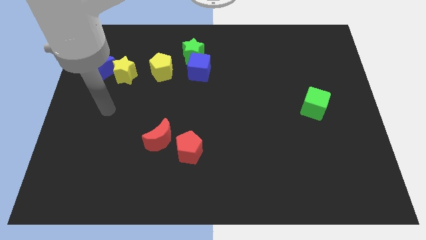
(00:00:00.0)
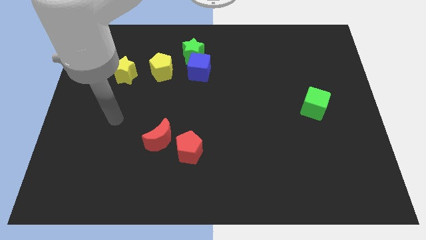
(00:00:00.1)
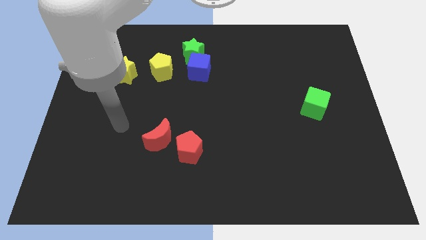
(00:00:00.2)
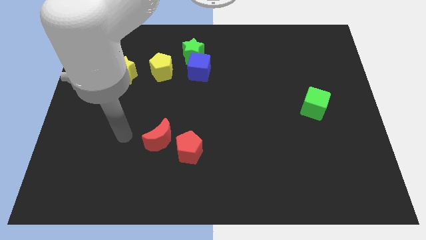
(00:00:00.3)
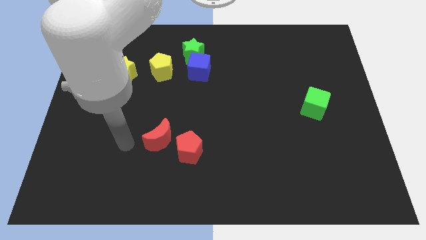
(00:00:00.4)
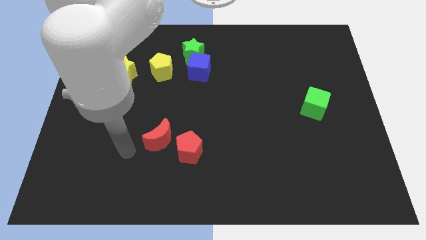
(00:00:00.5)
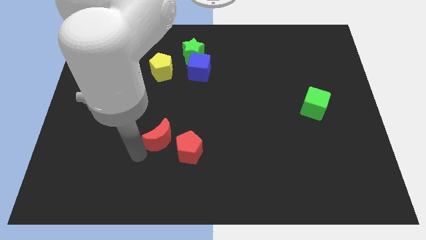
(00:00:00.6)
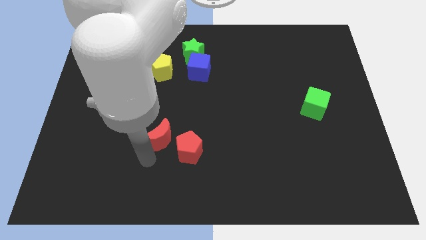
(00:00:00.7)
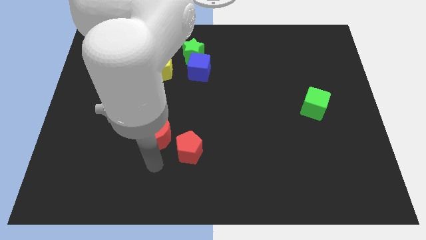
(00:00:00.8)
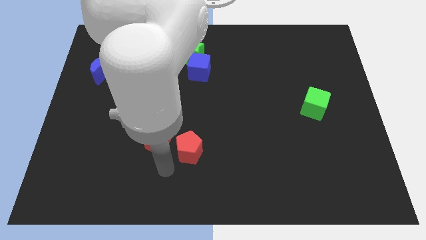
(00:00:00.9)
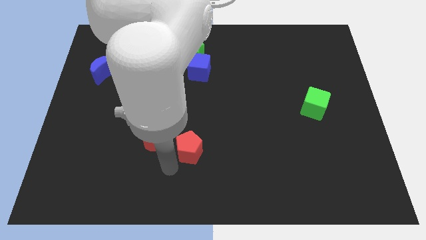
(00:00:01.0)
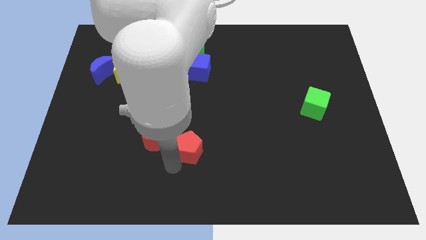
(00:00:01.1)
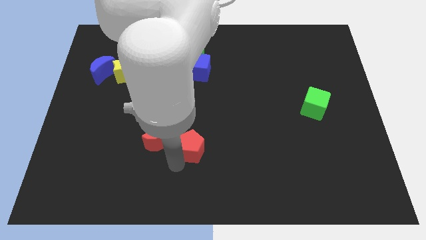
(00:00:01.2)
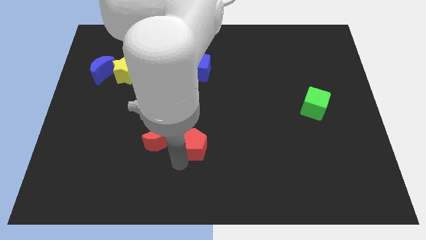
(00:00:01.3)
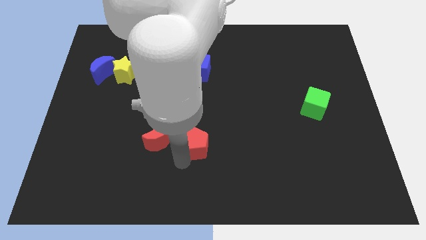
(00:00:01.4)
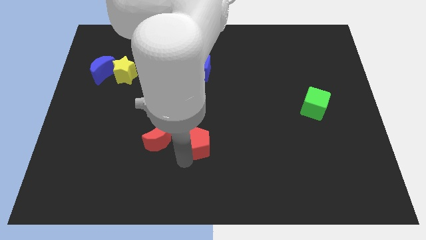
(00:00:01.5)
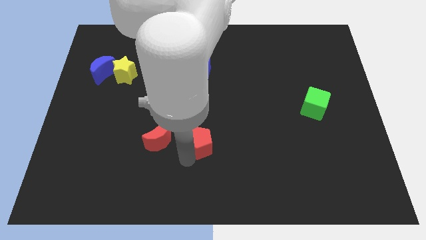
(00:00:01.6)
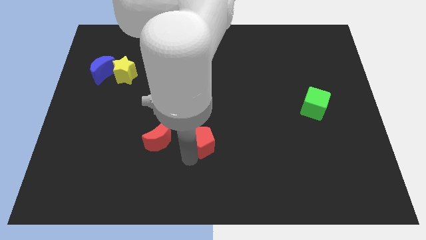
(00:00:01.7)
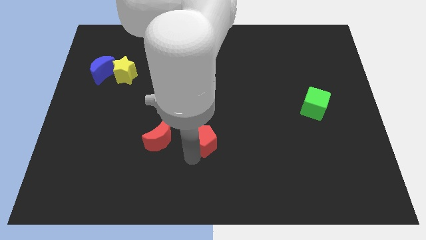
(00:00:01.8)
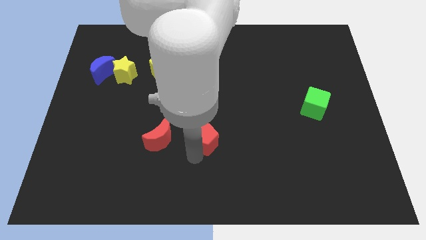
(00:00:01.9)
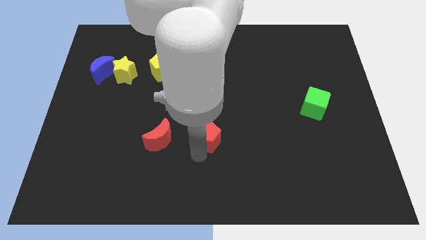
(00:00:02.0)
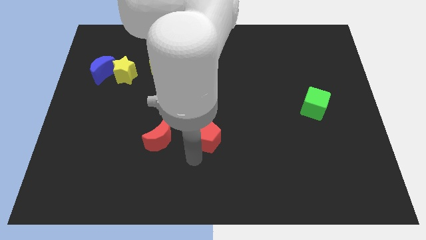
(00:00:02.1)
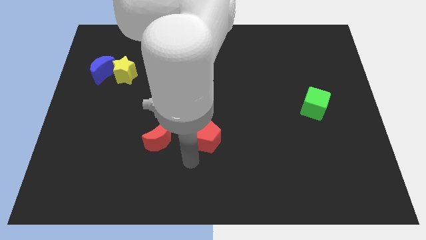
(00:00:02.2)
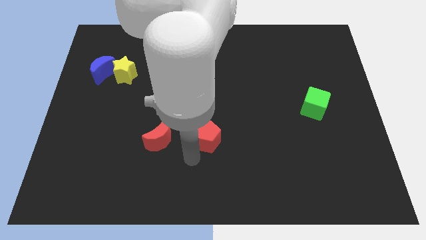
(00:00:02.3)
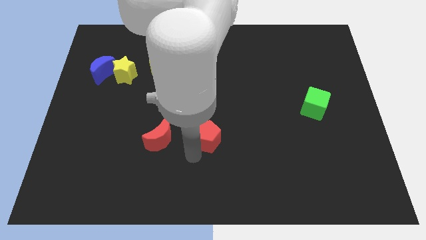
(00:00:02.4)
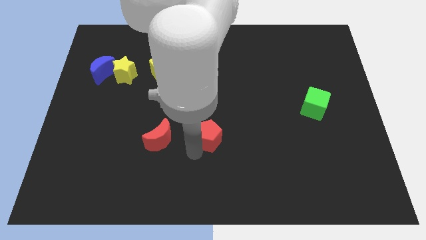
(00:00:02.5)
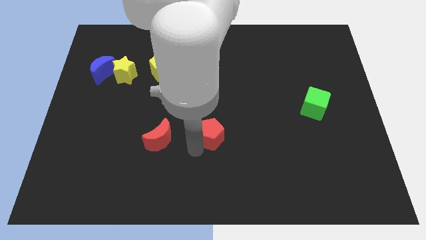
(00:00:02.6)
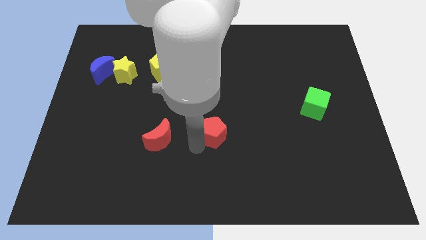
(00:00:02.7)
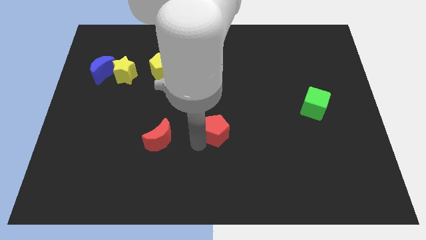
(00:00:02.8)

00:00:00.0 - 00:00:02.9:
push the red pentagon up and to the right diagonally slightly

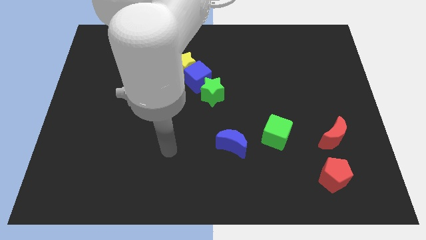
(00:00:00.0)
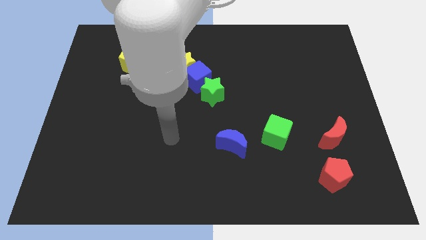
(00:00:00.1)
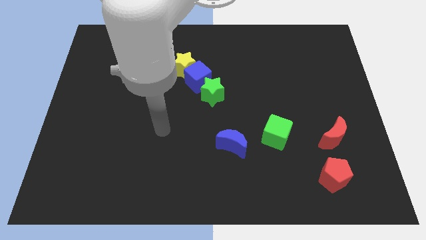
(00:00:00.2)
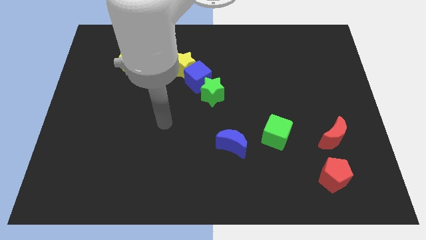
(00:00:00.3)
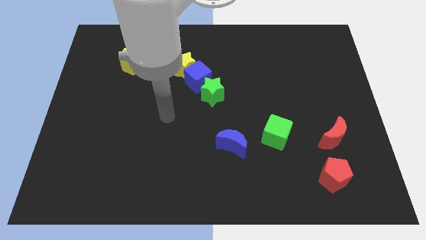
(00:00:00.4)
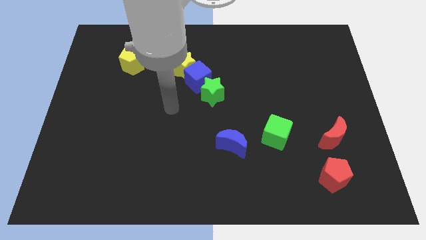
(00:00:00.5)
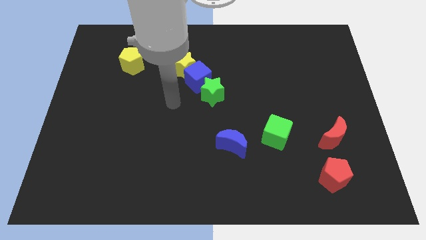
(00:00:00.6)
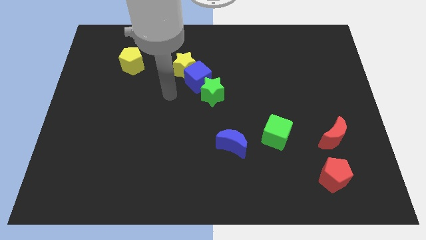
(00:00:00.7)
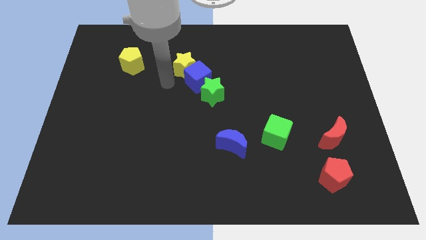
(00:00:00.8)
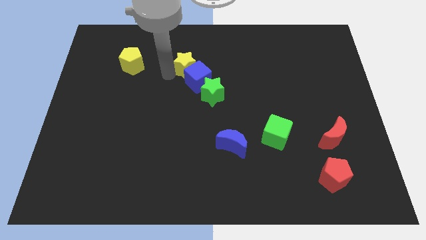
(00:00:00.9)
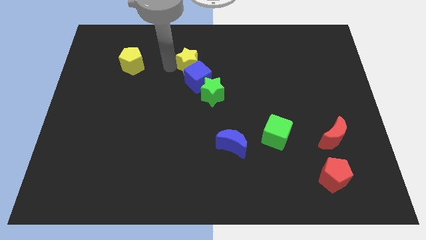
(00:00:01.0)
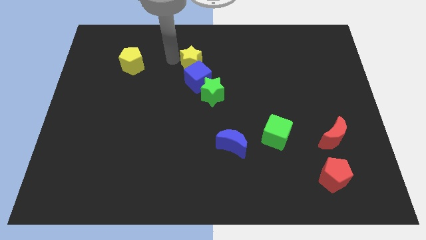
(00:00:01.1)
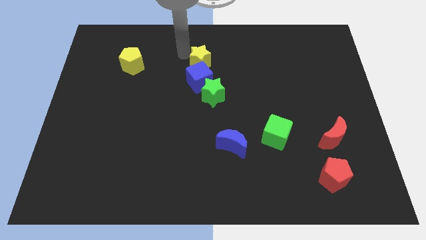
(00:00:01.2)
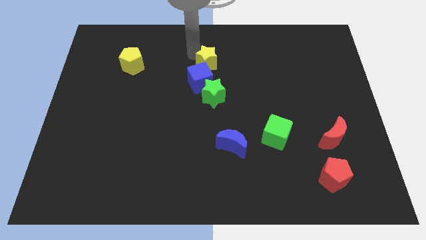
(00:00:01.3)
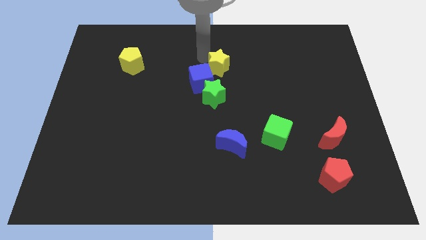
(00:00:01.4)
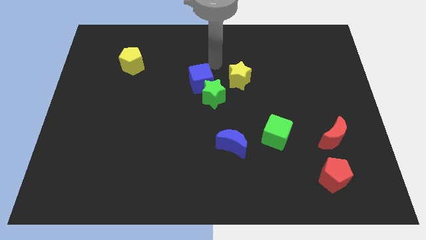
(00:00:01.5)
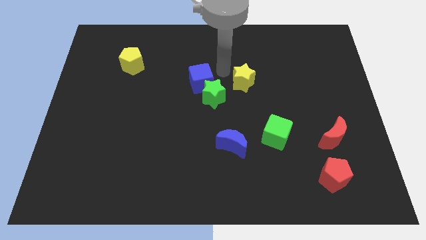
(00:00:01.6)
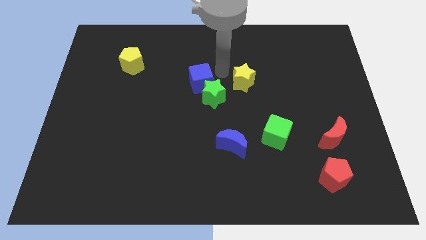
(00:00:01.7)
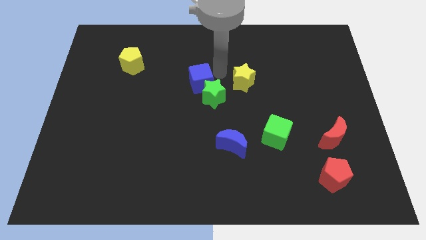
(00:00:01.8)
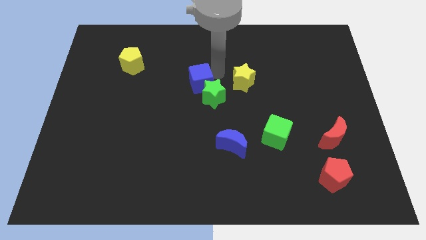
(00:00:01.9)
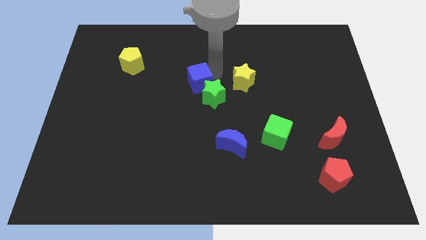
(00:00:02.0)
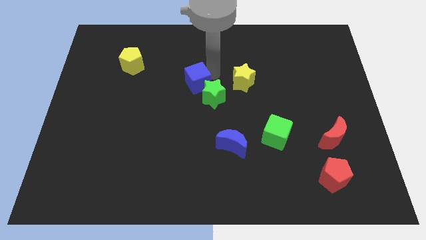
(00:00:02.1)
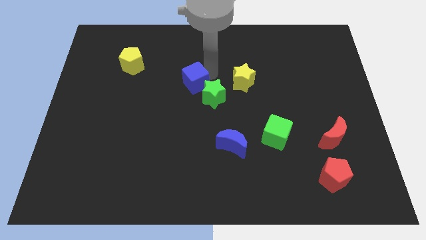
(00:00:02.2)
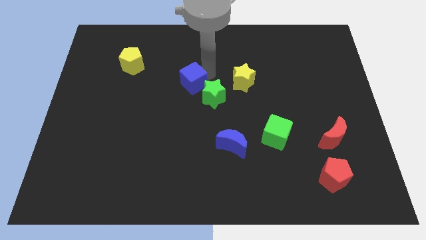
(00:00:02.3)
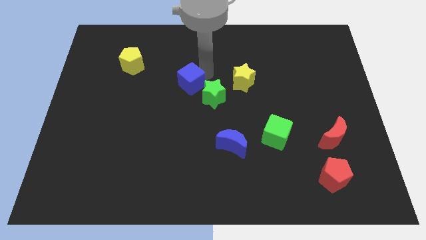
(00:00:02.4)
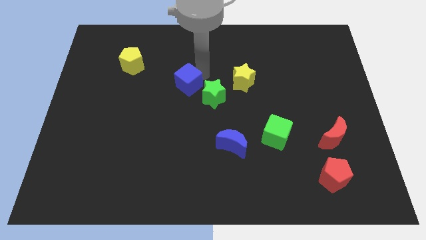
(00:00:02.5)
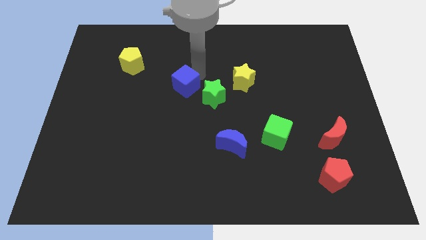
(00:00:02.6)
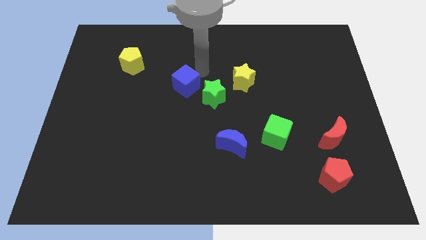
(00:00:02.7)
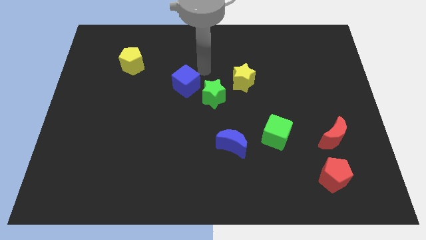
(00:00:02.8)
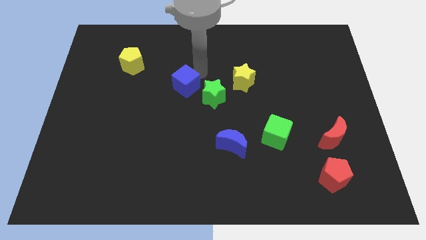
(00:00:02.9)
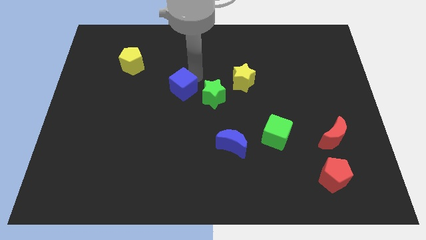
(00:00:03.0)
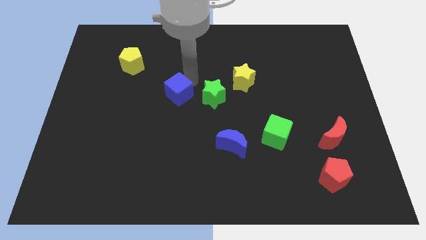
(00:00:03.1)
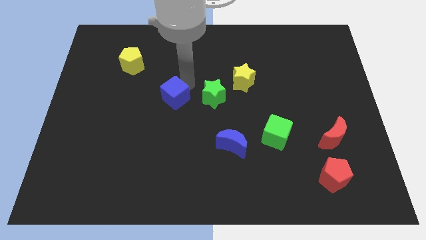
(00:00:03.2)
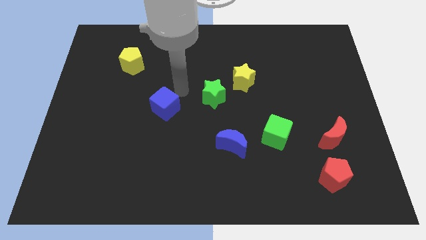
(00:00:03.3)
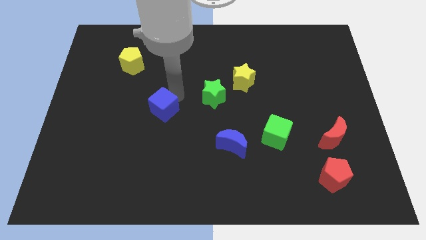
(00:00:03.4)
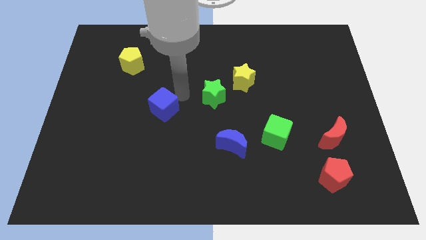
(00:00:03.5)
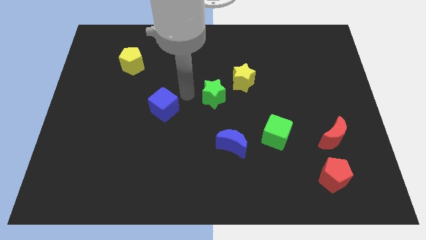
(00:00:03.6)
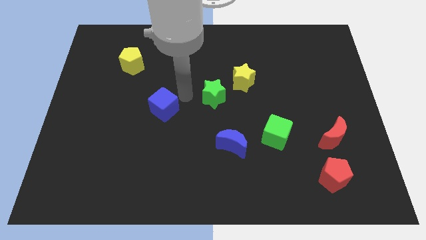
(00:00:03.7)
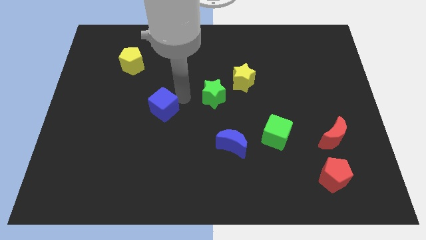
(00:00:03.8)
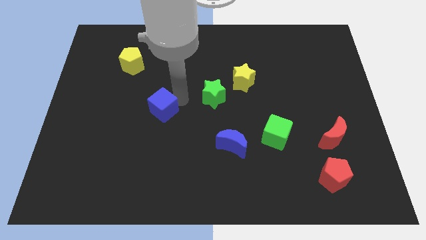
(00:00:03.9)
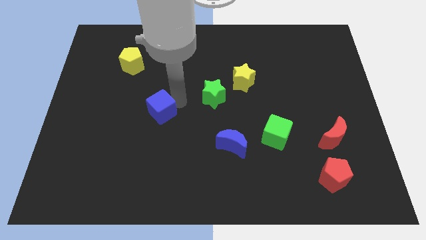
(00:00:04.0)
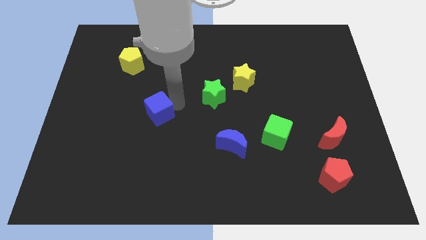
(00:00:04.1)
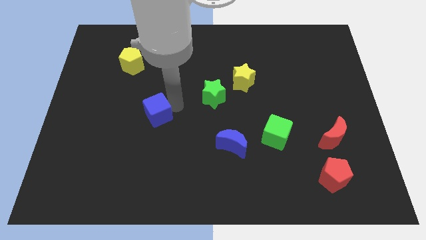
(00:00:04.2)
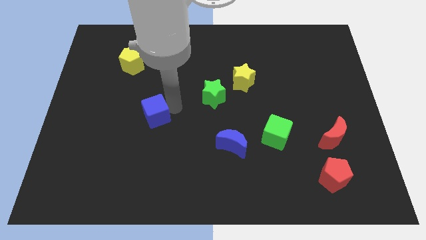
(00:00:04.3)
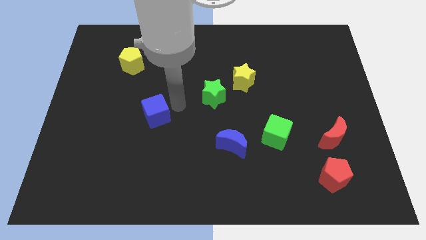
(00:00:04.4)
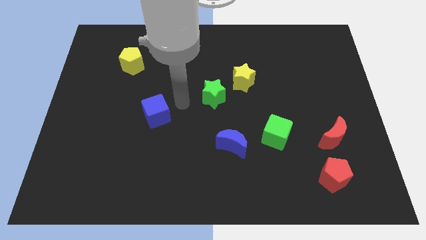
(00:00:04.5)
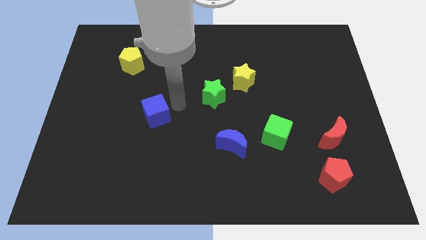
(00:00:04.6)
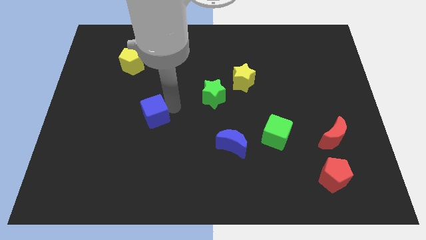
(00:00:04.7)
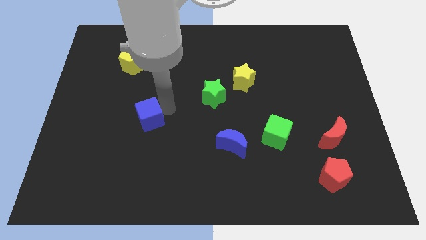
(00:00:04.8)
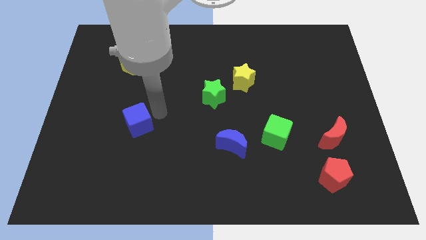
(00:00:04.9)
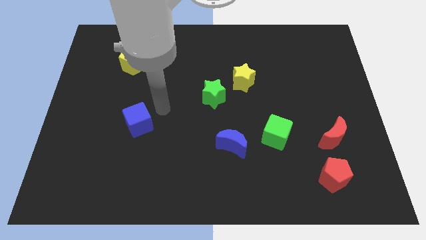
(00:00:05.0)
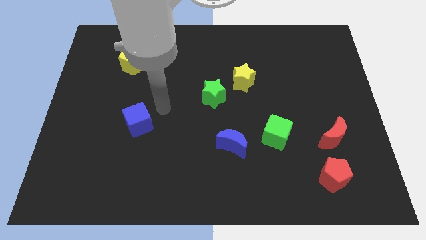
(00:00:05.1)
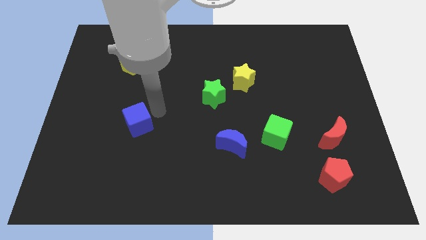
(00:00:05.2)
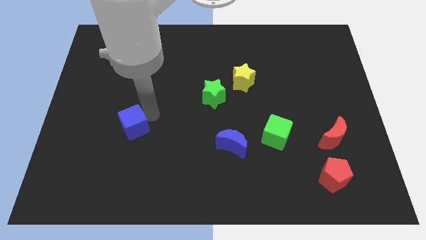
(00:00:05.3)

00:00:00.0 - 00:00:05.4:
slide the blue cube down and left

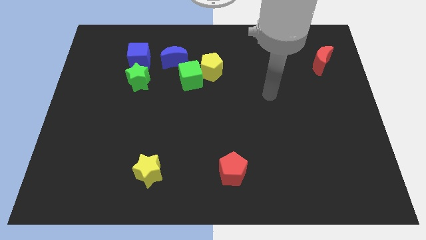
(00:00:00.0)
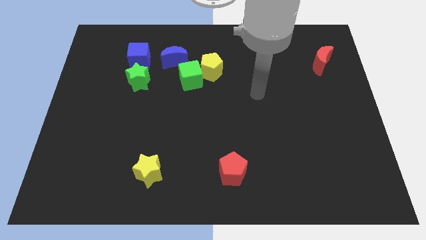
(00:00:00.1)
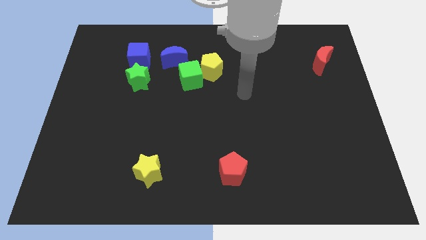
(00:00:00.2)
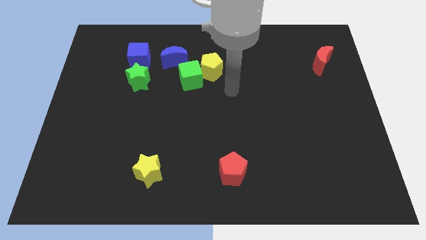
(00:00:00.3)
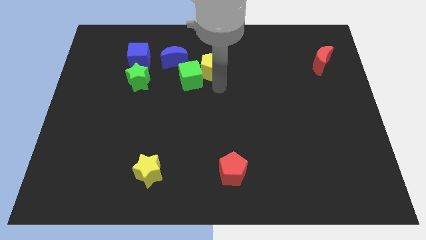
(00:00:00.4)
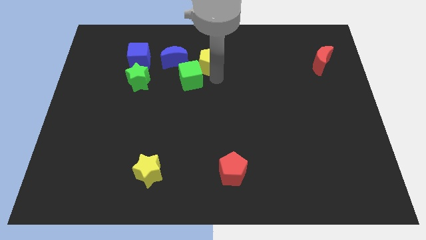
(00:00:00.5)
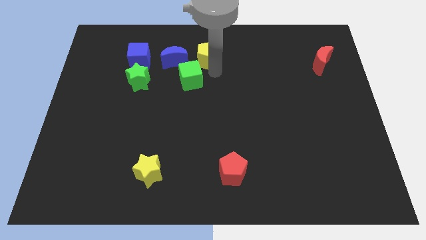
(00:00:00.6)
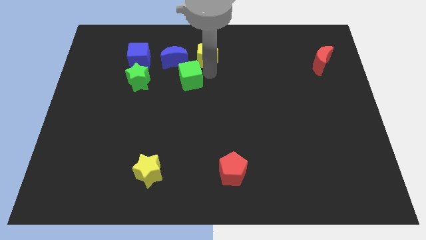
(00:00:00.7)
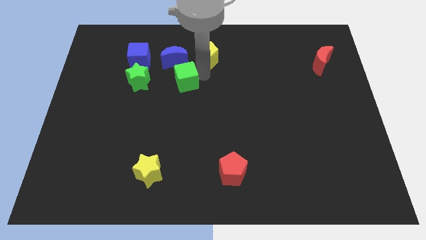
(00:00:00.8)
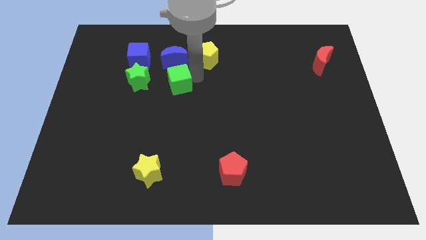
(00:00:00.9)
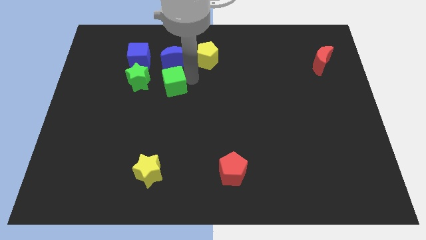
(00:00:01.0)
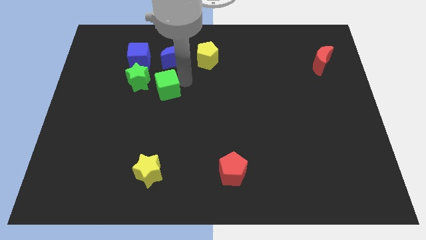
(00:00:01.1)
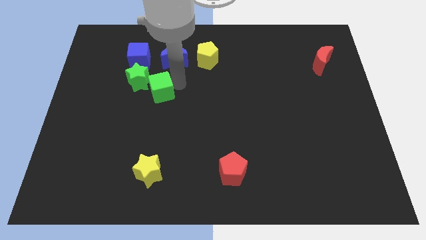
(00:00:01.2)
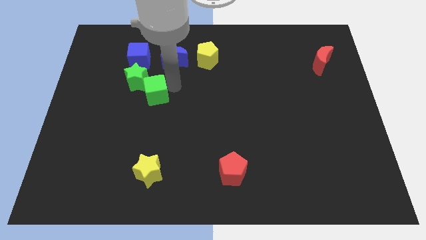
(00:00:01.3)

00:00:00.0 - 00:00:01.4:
move the green cube to the left slightly
